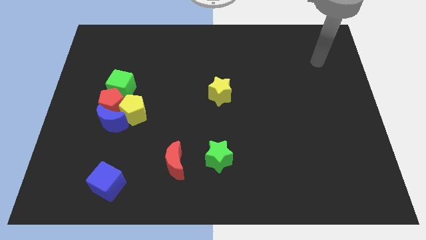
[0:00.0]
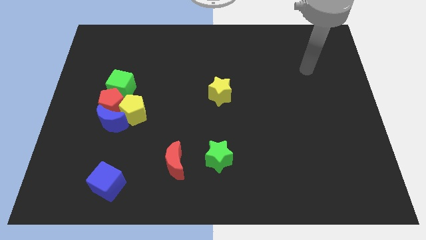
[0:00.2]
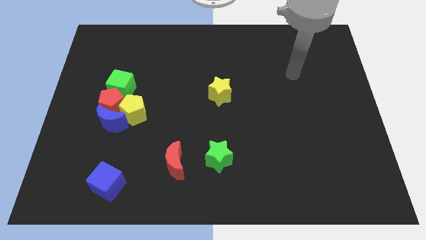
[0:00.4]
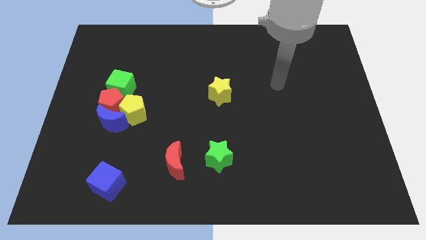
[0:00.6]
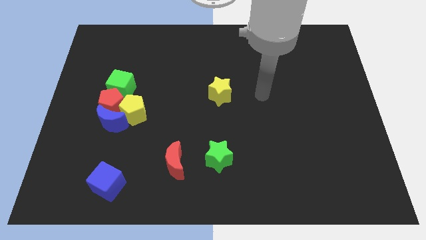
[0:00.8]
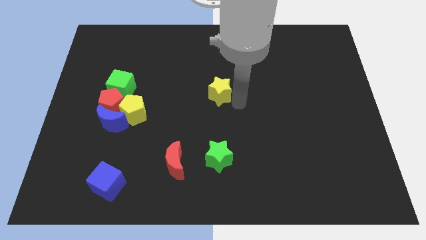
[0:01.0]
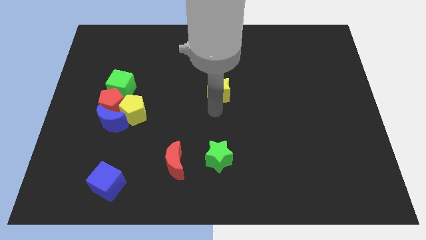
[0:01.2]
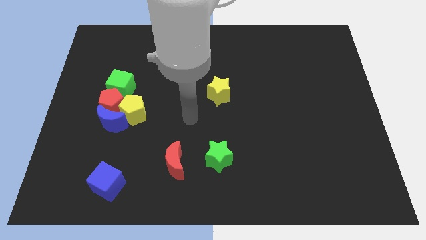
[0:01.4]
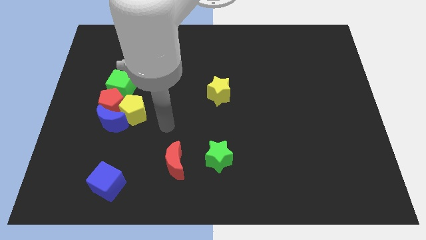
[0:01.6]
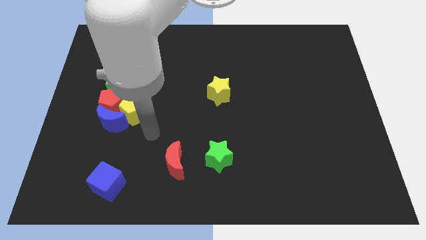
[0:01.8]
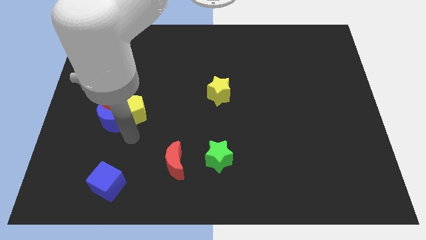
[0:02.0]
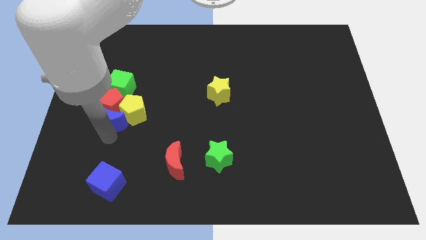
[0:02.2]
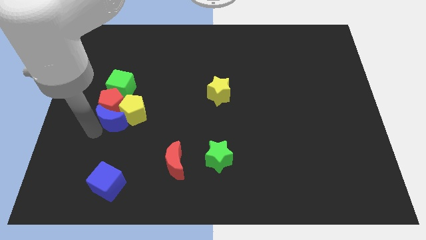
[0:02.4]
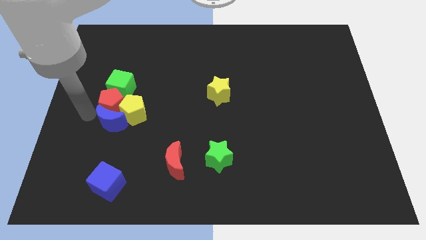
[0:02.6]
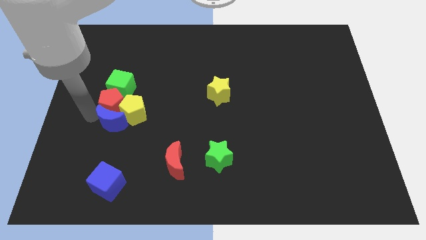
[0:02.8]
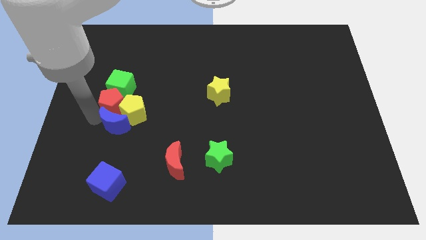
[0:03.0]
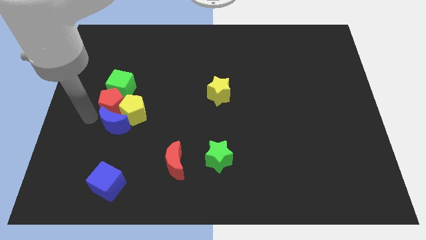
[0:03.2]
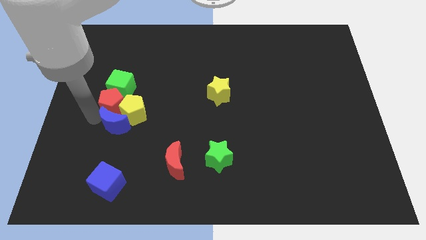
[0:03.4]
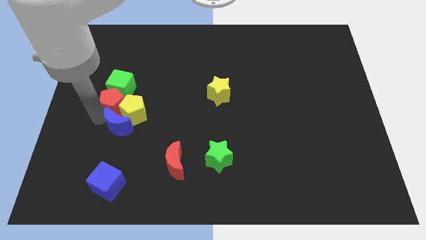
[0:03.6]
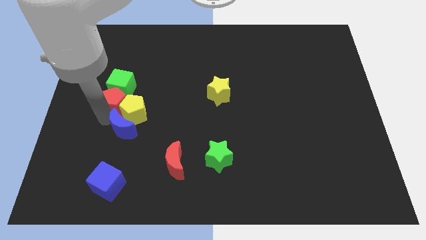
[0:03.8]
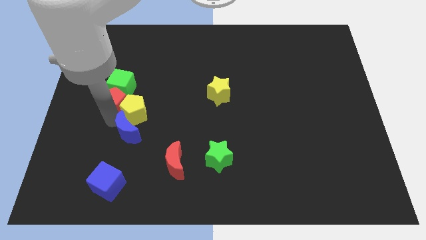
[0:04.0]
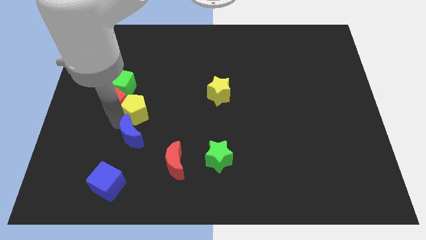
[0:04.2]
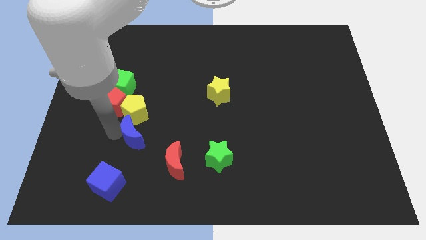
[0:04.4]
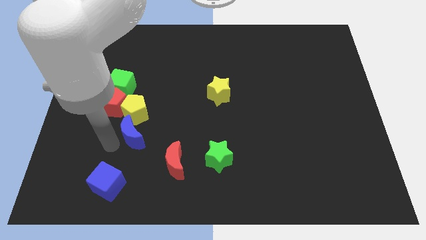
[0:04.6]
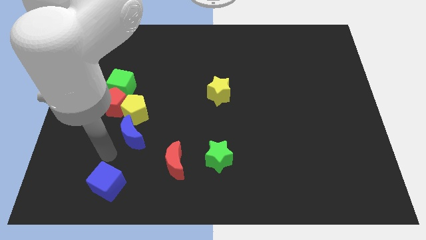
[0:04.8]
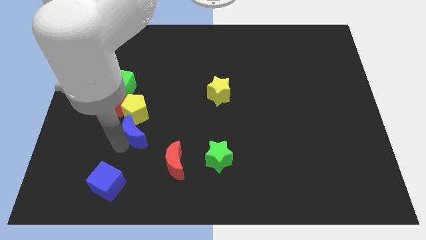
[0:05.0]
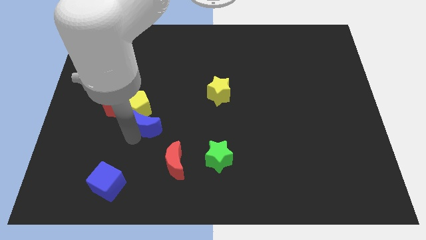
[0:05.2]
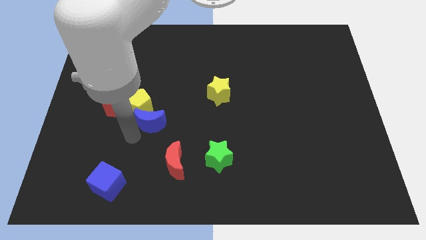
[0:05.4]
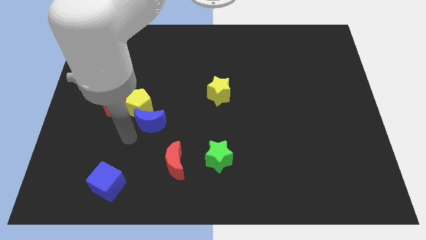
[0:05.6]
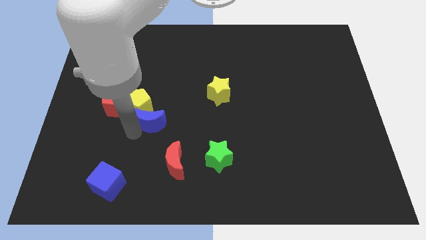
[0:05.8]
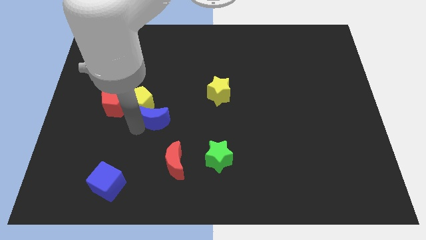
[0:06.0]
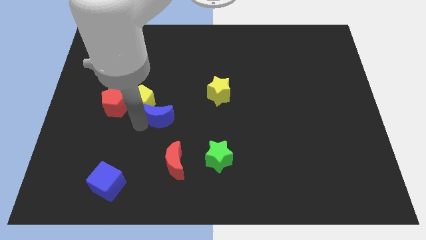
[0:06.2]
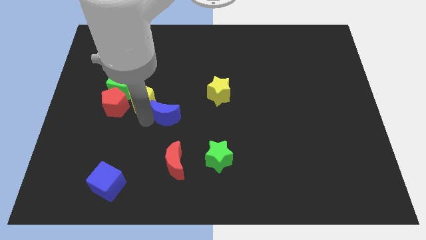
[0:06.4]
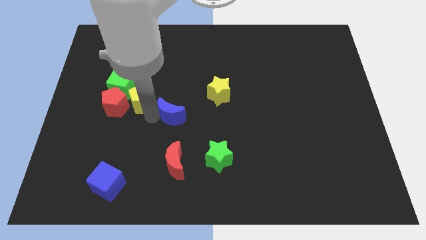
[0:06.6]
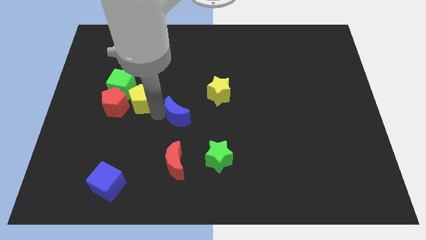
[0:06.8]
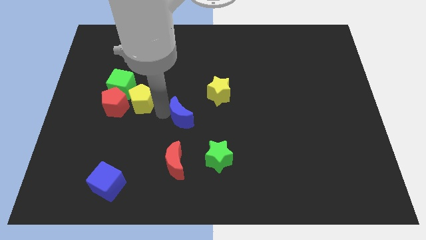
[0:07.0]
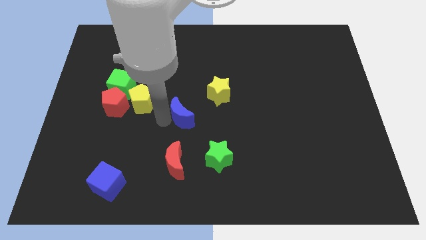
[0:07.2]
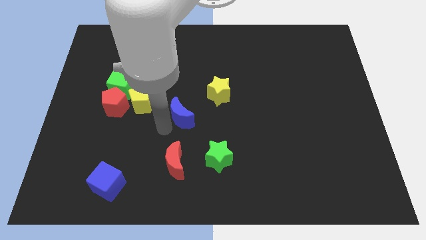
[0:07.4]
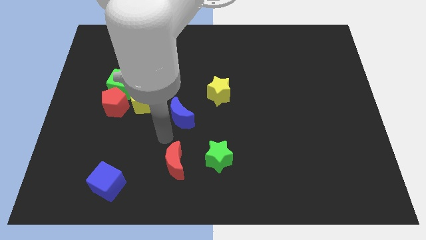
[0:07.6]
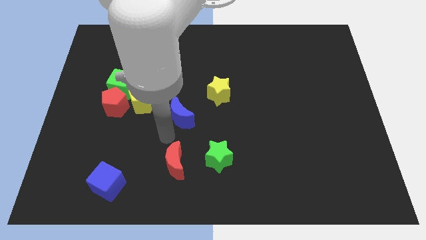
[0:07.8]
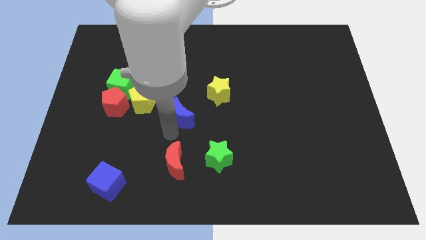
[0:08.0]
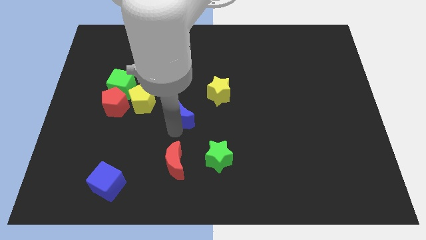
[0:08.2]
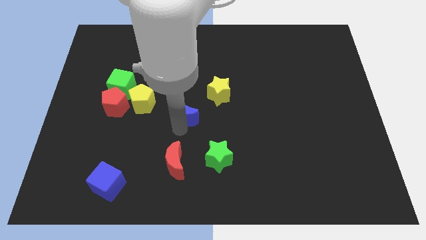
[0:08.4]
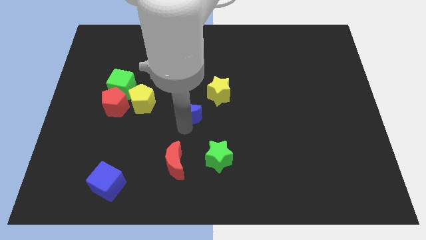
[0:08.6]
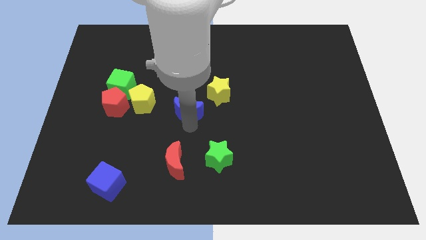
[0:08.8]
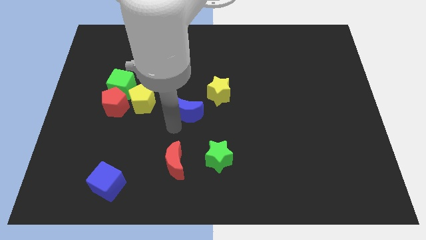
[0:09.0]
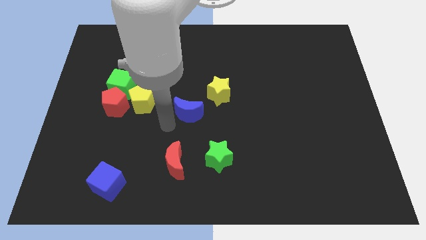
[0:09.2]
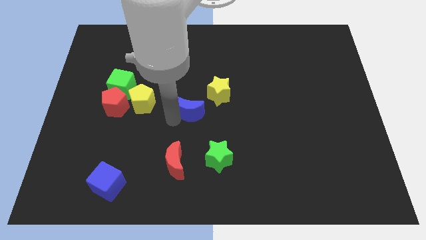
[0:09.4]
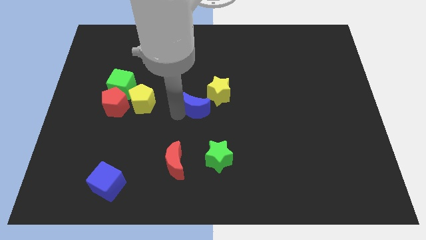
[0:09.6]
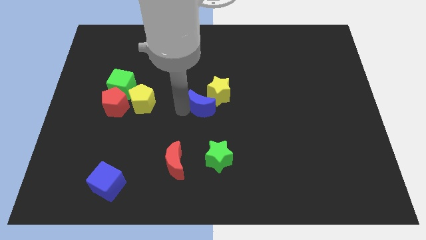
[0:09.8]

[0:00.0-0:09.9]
move the blue moon close to the yellow star

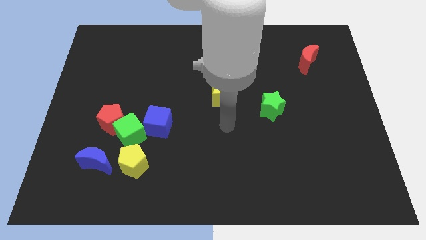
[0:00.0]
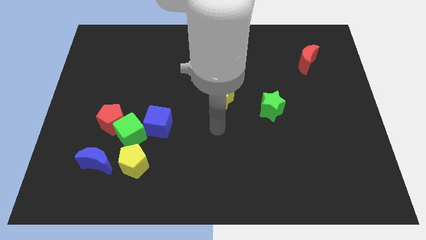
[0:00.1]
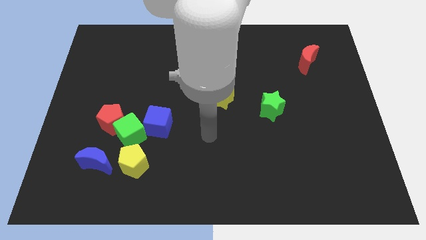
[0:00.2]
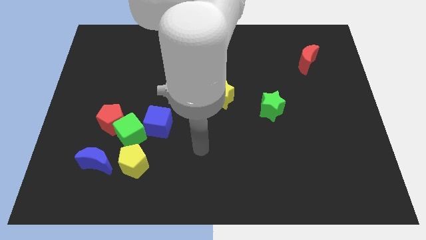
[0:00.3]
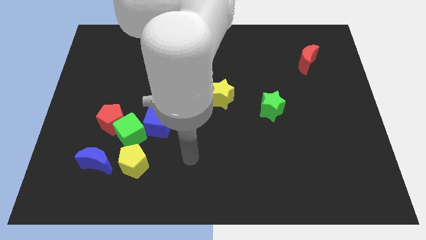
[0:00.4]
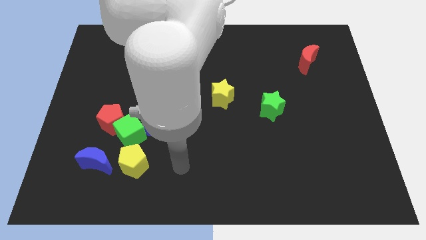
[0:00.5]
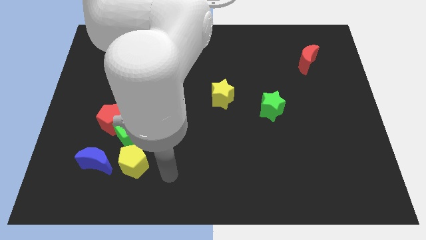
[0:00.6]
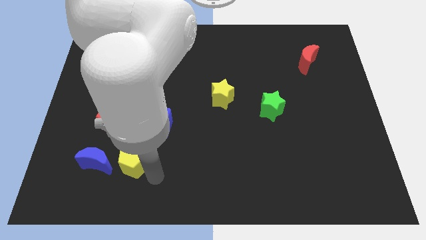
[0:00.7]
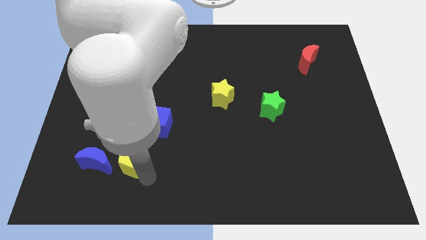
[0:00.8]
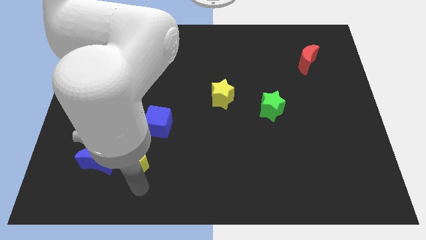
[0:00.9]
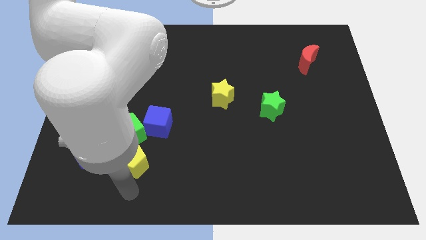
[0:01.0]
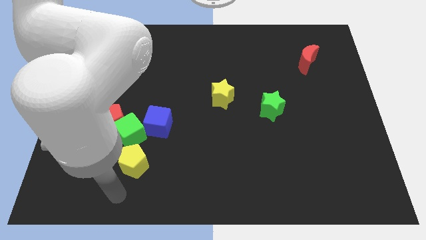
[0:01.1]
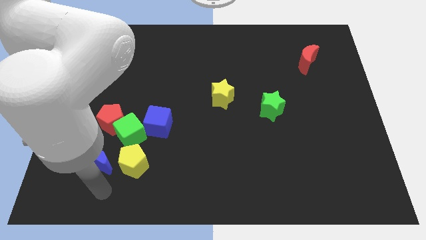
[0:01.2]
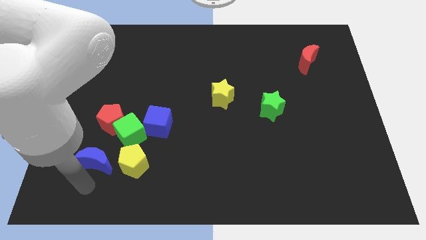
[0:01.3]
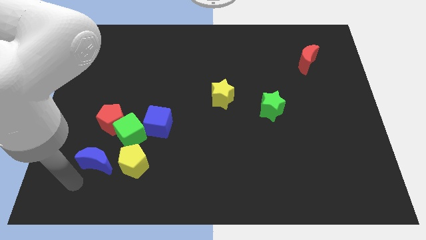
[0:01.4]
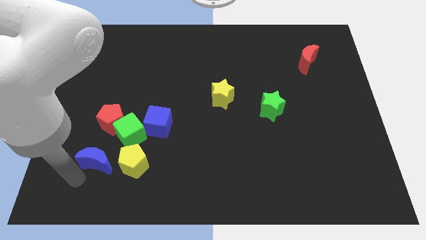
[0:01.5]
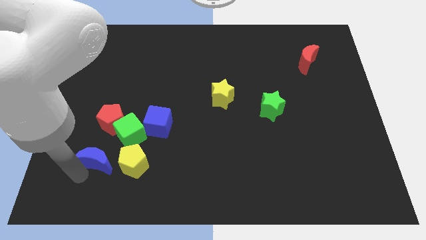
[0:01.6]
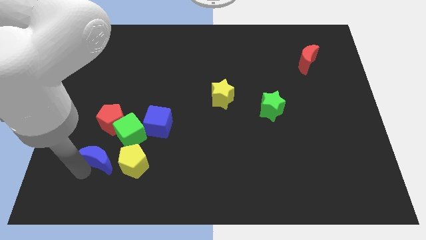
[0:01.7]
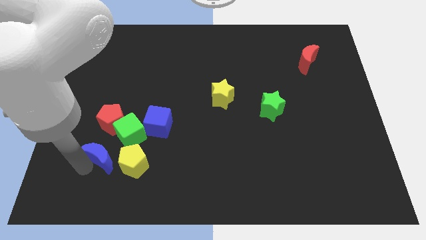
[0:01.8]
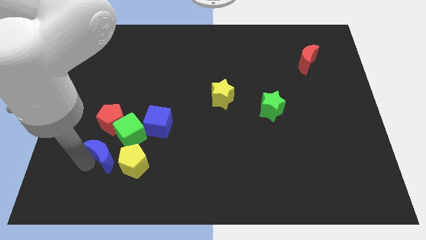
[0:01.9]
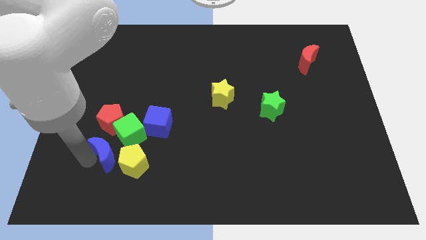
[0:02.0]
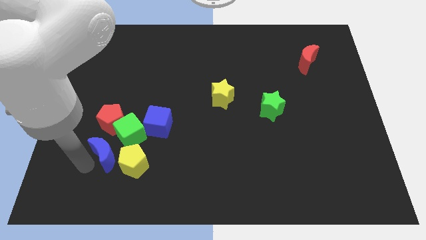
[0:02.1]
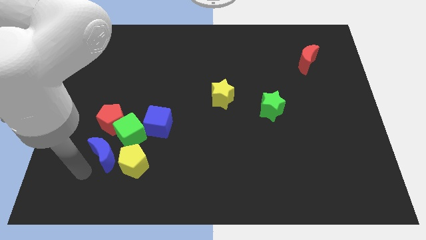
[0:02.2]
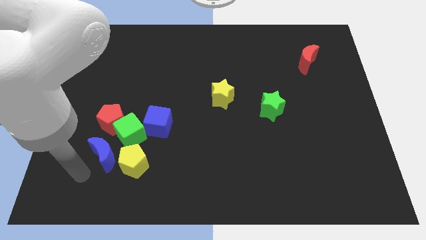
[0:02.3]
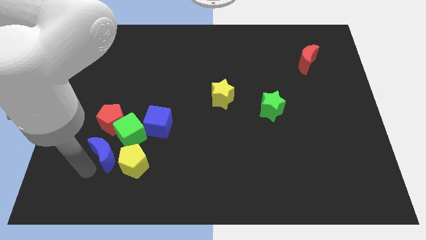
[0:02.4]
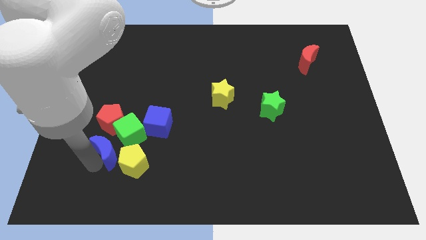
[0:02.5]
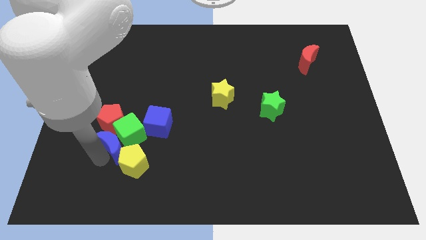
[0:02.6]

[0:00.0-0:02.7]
slide the blue moon next to the green cube

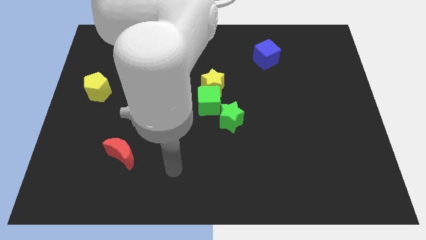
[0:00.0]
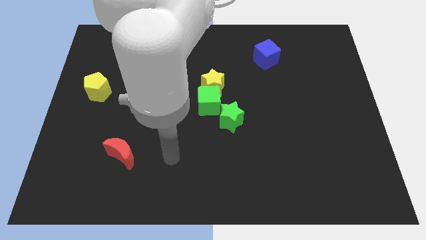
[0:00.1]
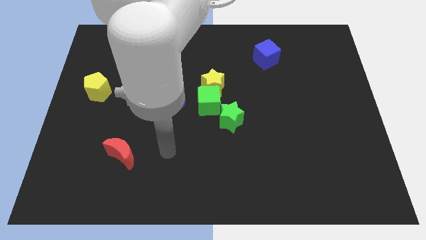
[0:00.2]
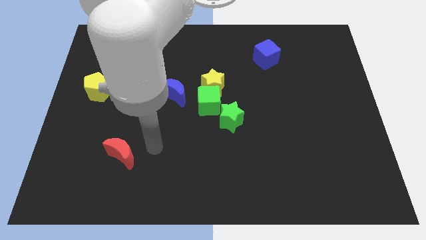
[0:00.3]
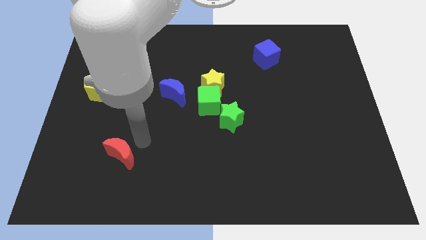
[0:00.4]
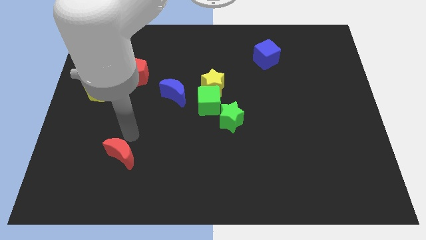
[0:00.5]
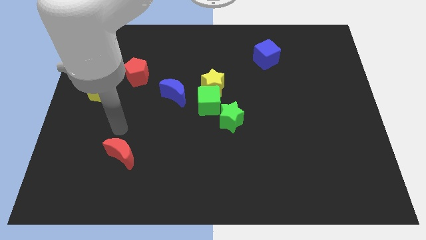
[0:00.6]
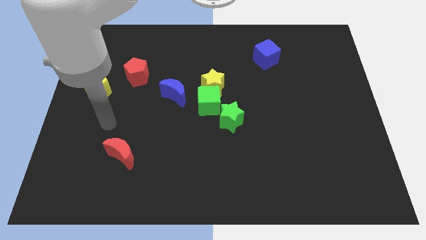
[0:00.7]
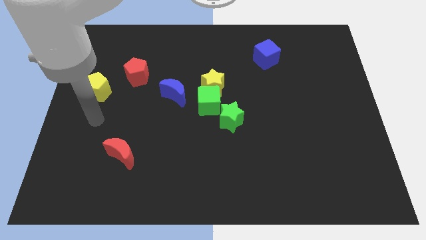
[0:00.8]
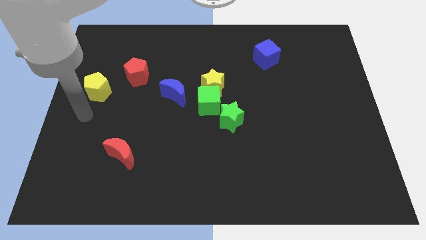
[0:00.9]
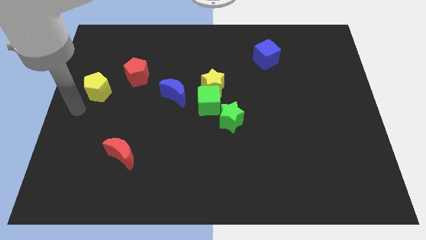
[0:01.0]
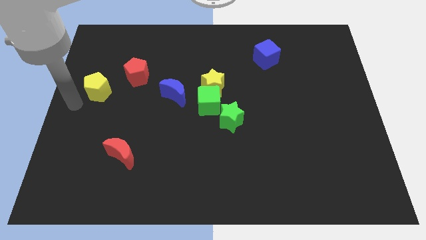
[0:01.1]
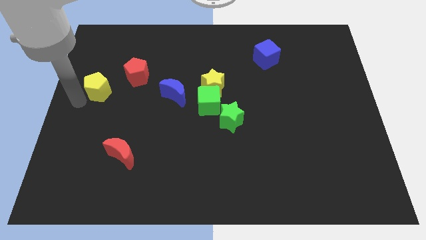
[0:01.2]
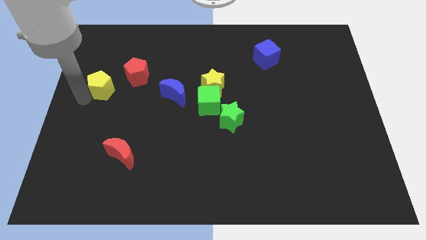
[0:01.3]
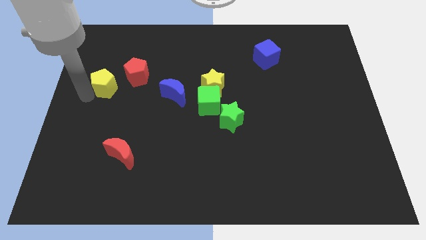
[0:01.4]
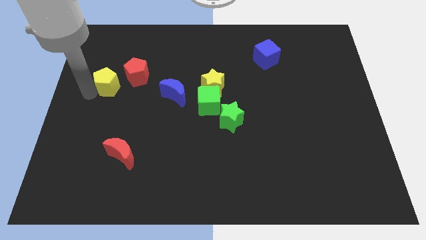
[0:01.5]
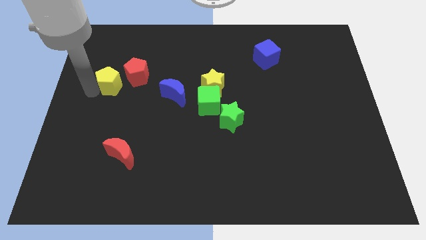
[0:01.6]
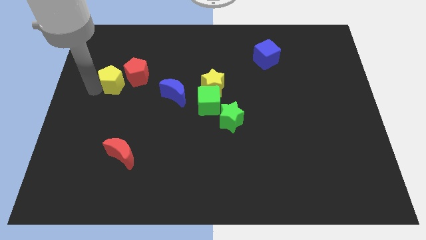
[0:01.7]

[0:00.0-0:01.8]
push the yellow pentagon next to the red pentagon
